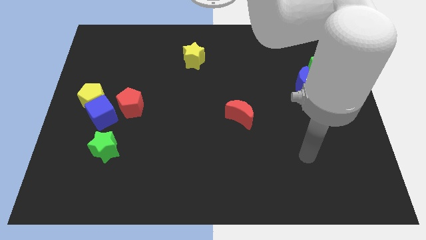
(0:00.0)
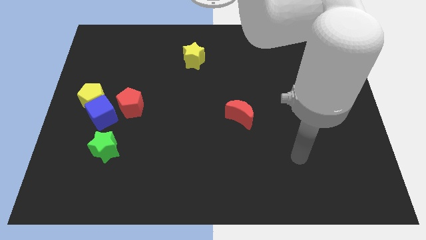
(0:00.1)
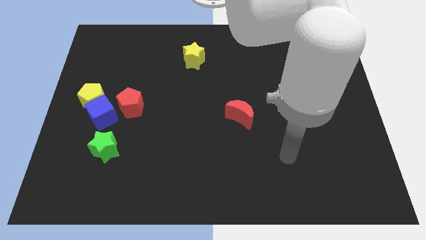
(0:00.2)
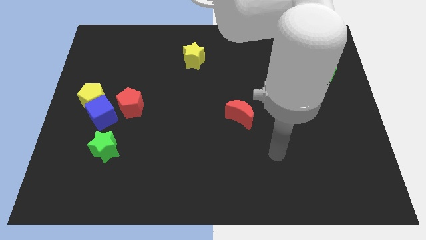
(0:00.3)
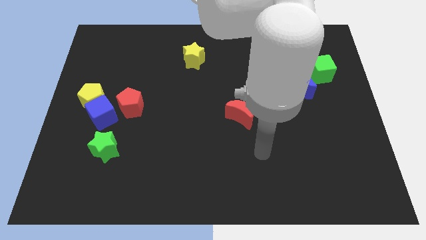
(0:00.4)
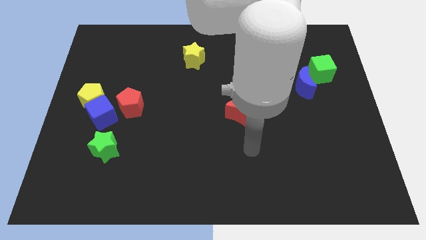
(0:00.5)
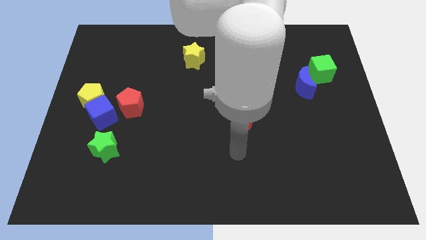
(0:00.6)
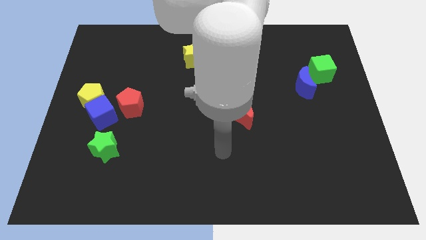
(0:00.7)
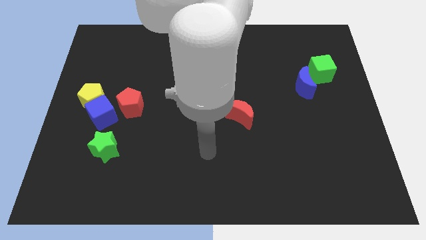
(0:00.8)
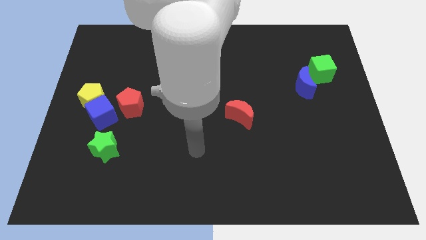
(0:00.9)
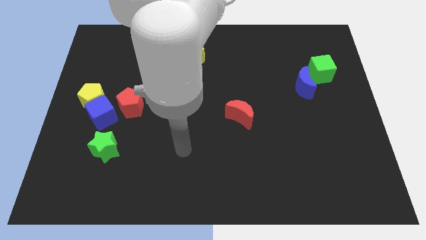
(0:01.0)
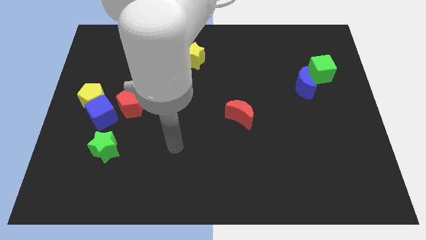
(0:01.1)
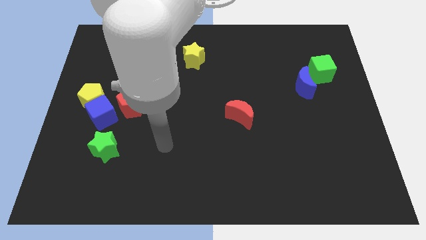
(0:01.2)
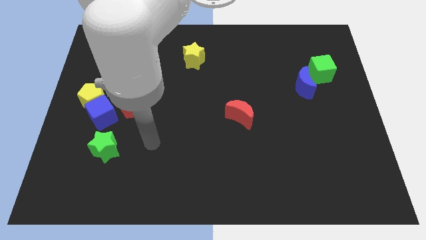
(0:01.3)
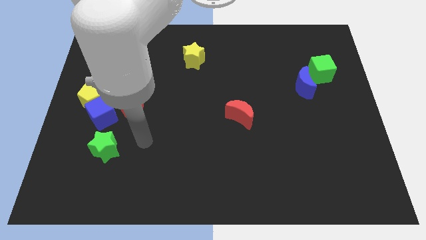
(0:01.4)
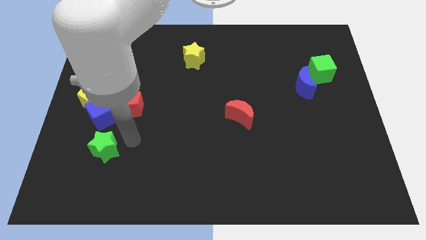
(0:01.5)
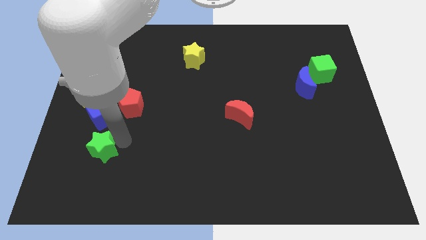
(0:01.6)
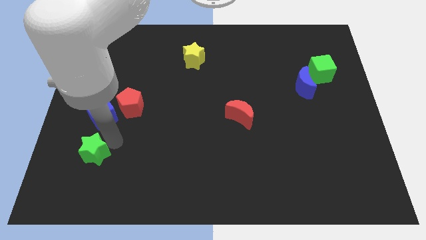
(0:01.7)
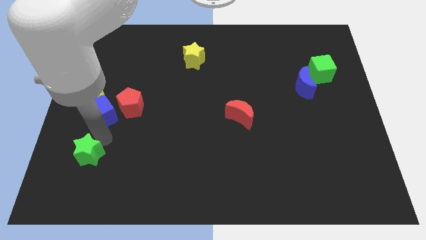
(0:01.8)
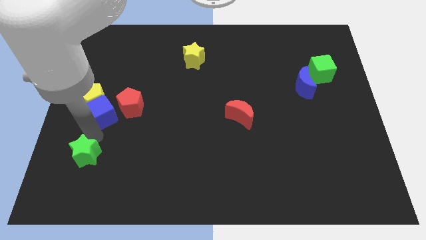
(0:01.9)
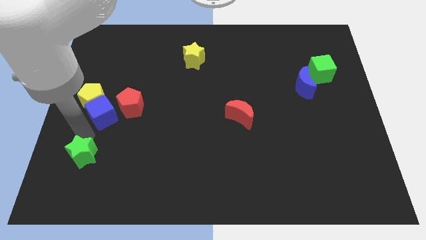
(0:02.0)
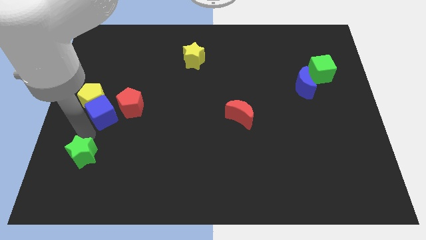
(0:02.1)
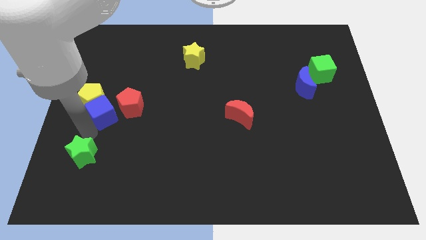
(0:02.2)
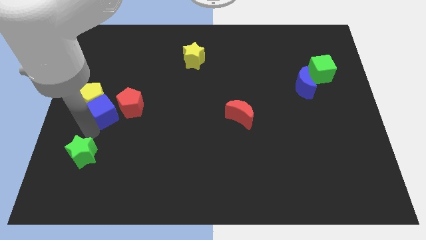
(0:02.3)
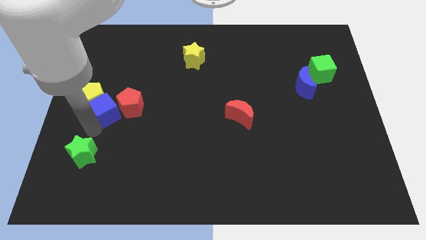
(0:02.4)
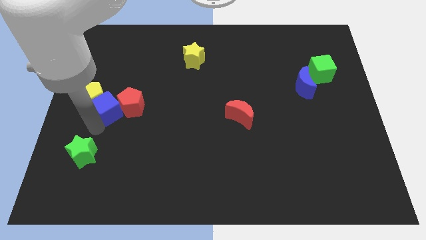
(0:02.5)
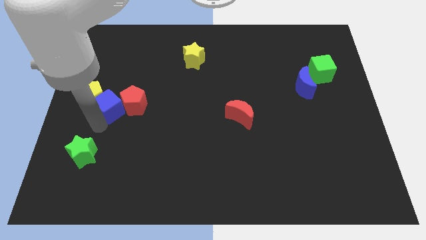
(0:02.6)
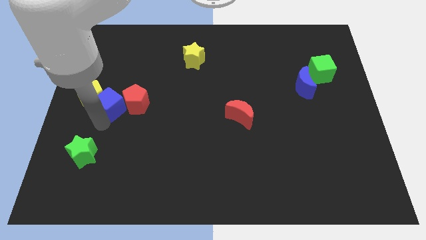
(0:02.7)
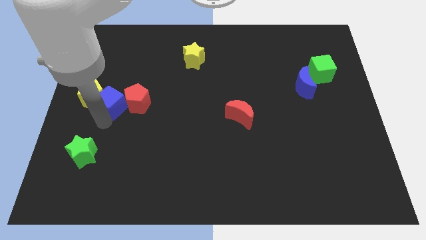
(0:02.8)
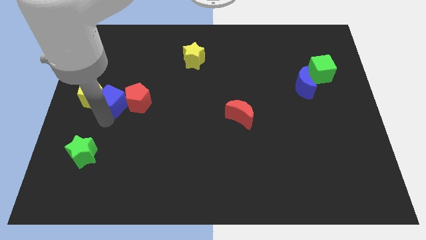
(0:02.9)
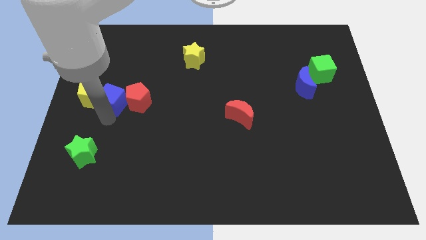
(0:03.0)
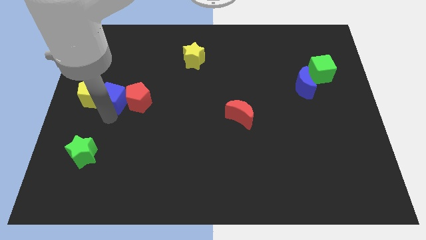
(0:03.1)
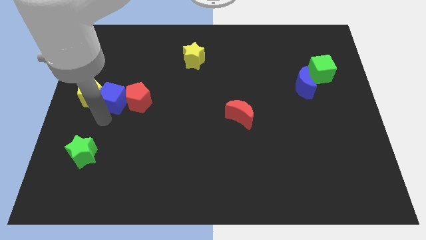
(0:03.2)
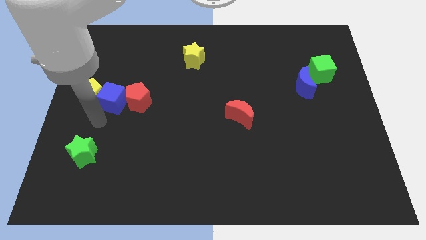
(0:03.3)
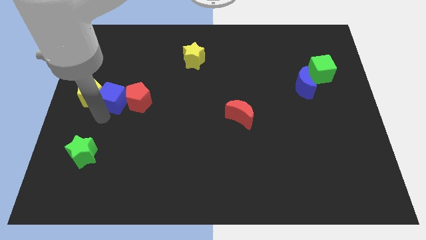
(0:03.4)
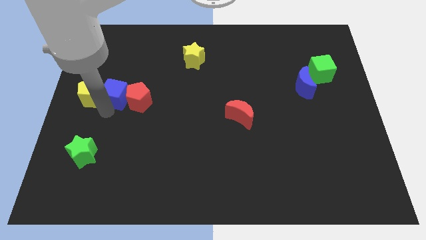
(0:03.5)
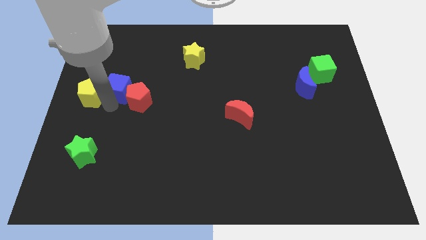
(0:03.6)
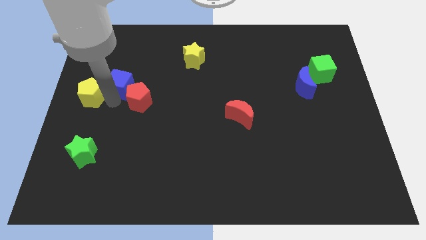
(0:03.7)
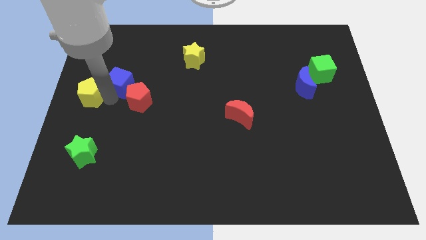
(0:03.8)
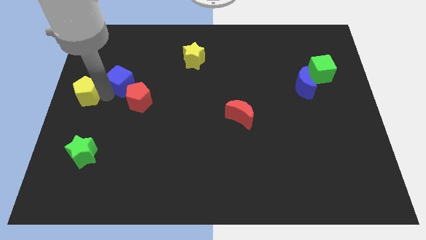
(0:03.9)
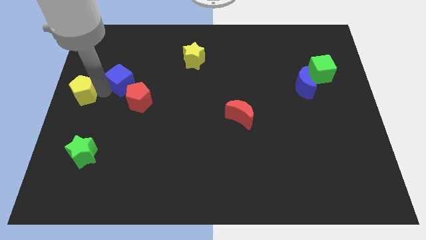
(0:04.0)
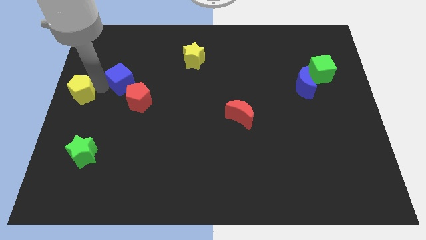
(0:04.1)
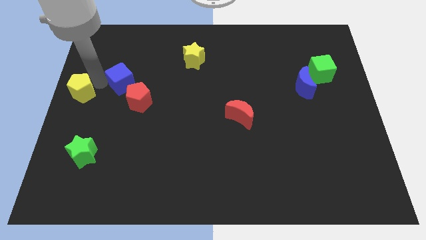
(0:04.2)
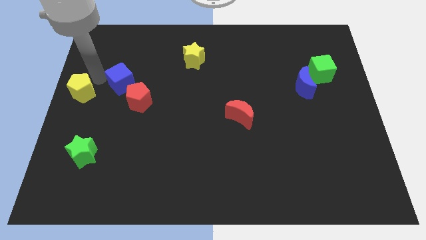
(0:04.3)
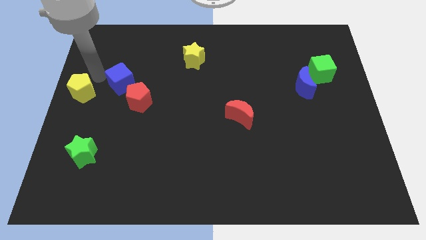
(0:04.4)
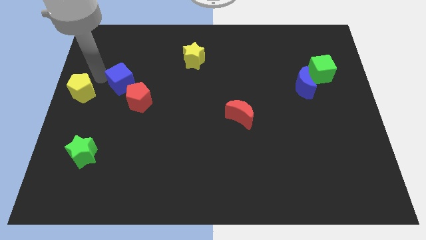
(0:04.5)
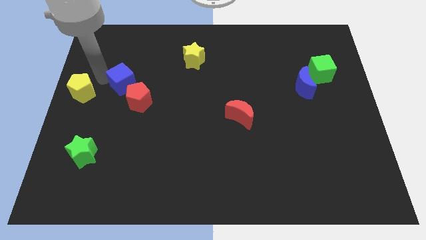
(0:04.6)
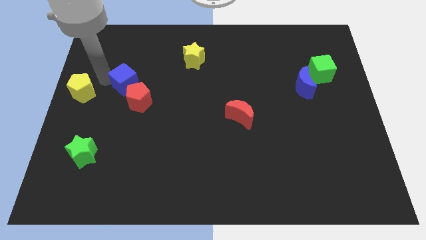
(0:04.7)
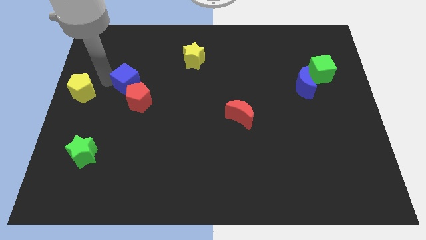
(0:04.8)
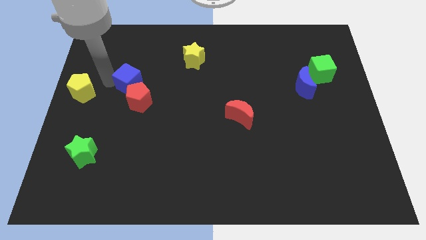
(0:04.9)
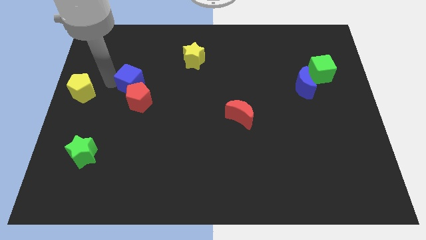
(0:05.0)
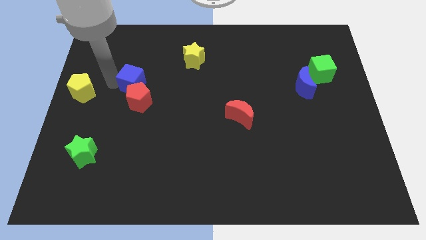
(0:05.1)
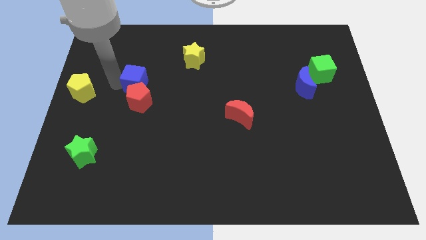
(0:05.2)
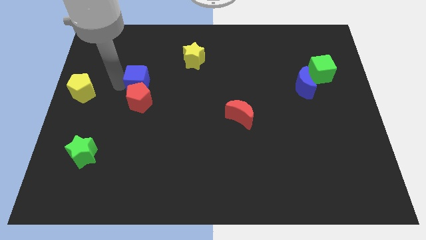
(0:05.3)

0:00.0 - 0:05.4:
move the blue cube to the top right of the red pentagon

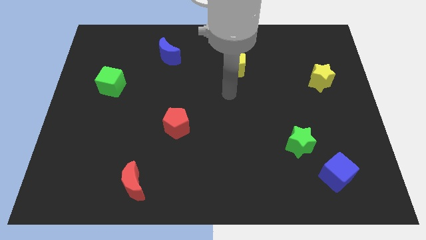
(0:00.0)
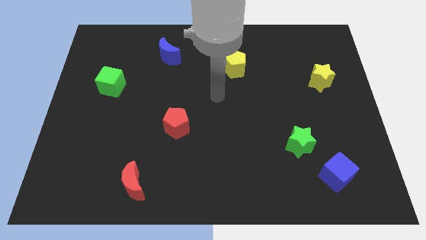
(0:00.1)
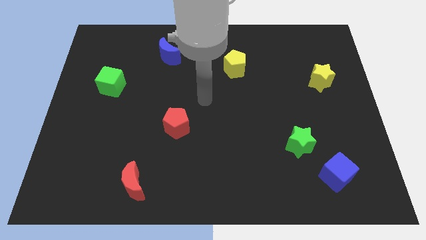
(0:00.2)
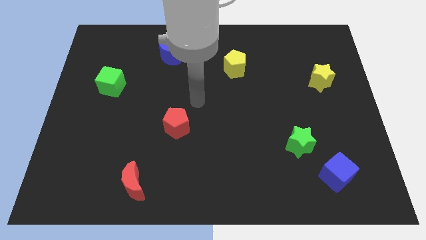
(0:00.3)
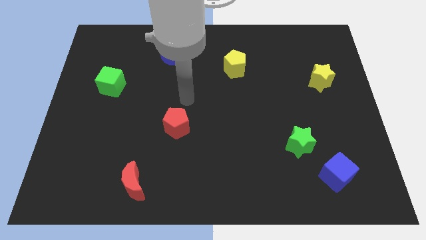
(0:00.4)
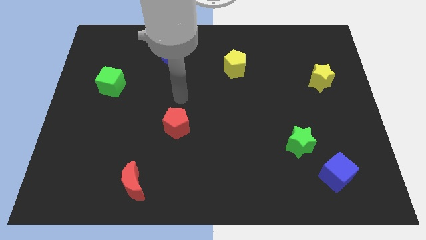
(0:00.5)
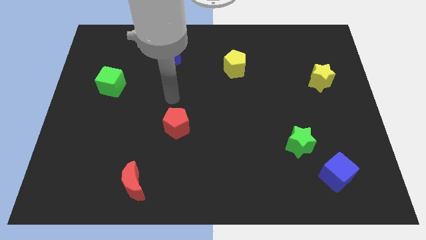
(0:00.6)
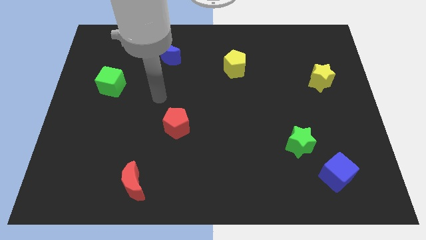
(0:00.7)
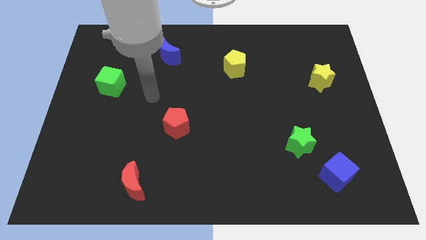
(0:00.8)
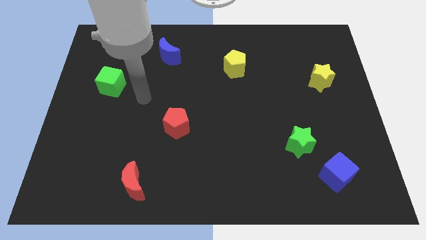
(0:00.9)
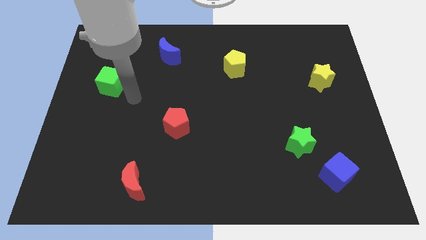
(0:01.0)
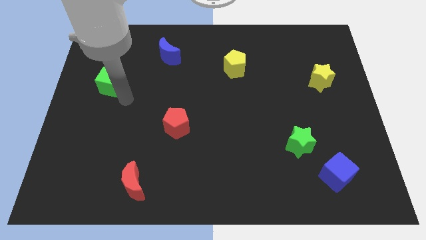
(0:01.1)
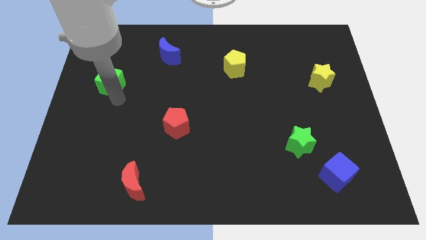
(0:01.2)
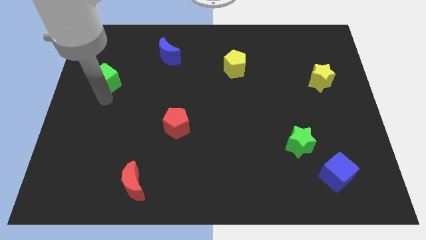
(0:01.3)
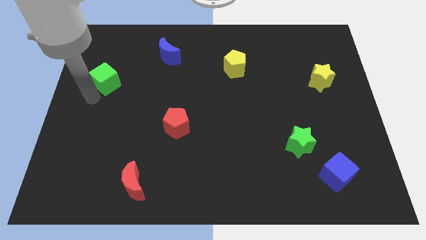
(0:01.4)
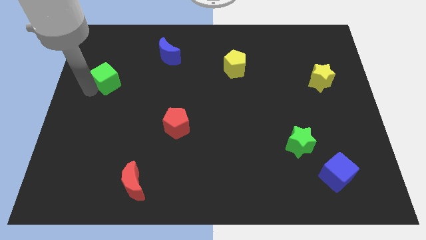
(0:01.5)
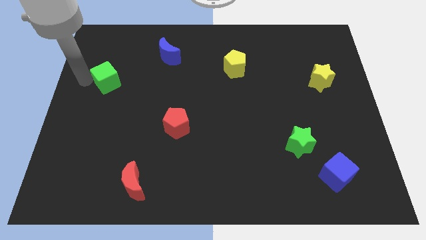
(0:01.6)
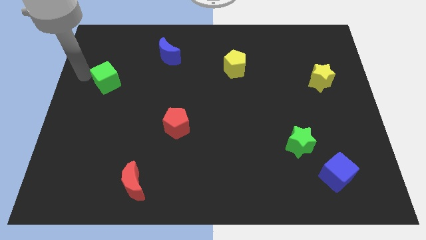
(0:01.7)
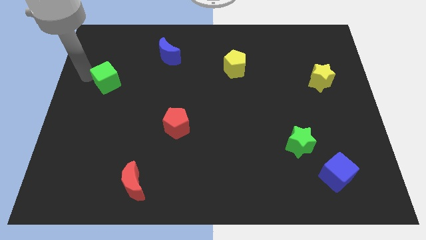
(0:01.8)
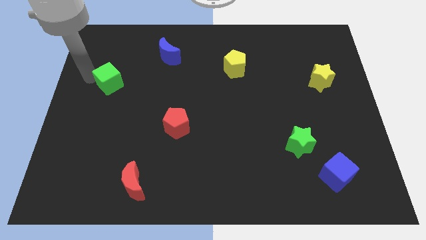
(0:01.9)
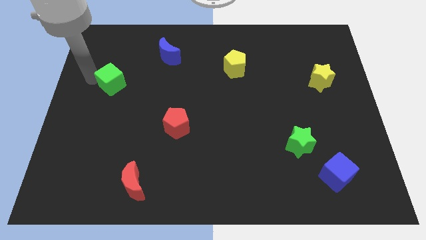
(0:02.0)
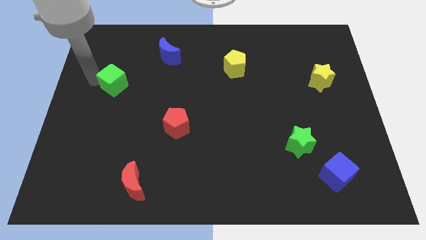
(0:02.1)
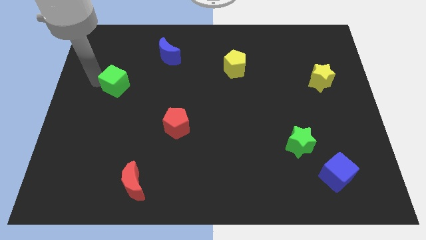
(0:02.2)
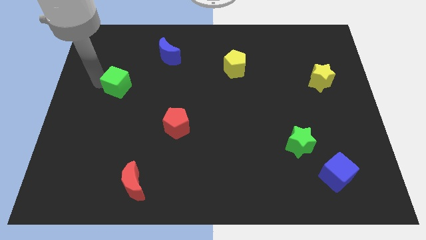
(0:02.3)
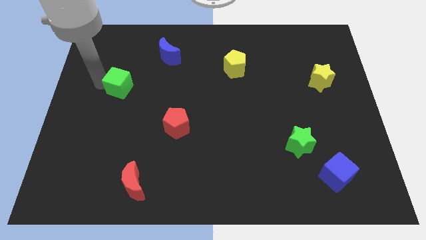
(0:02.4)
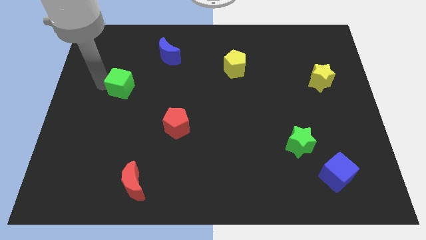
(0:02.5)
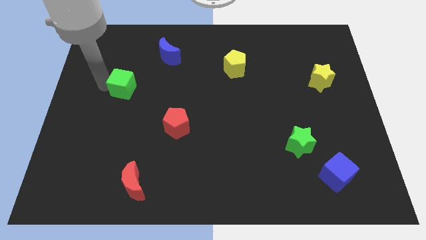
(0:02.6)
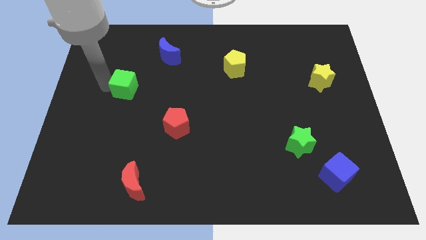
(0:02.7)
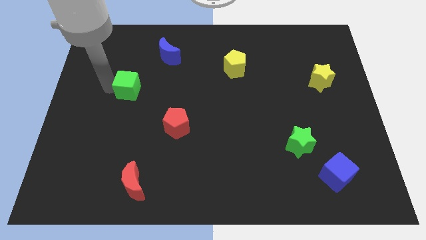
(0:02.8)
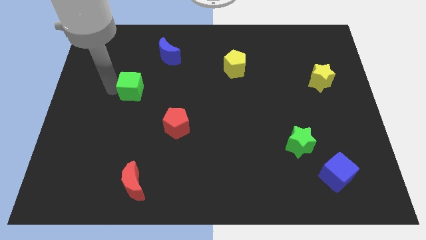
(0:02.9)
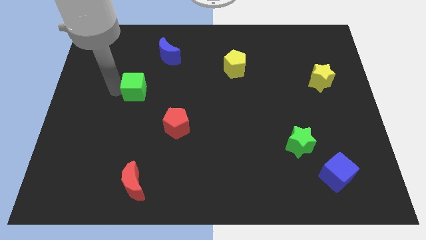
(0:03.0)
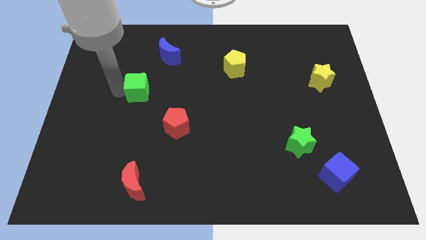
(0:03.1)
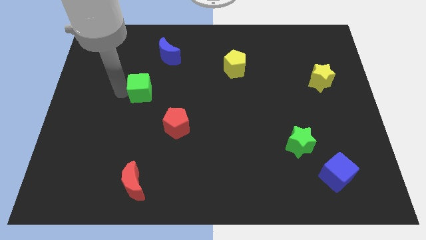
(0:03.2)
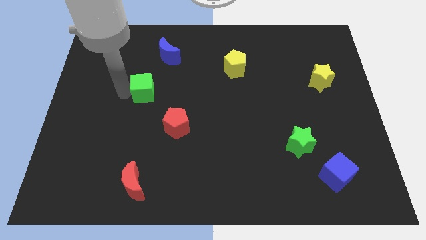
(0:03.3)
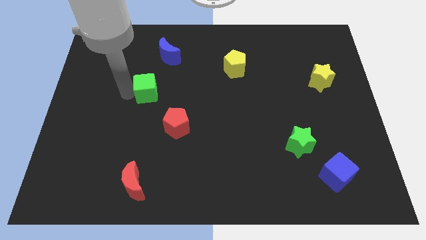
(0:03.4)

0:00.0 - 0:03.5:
move the green cube to the bottom side of the blue moon
